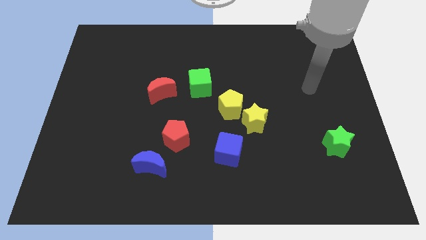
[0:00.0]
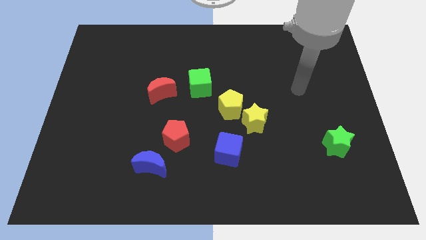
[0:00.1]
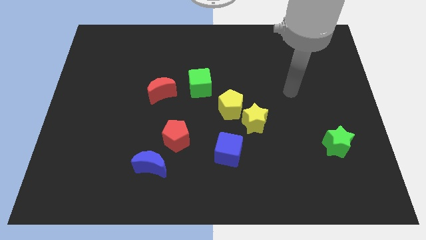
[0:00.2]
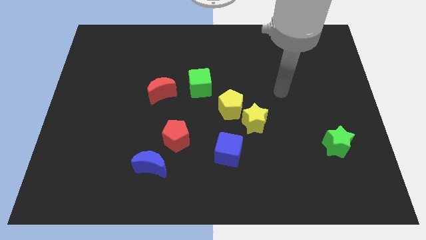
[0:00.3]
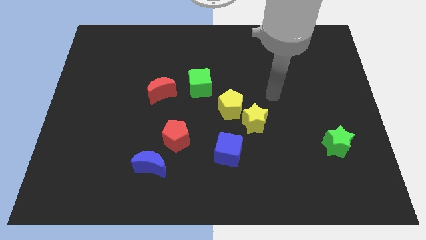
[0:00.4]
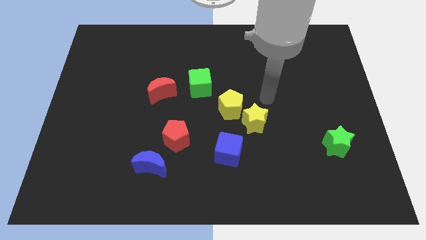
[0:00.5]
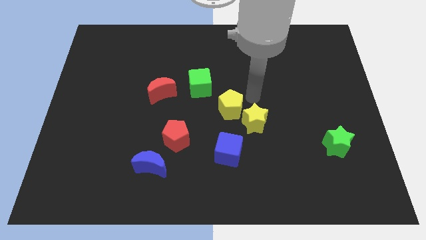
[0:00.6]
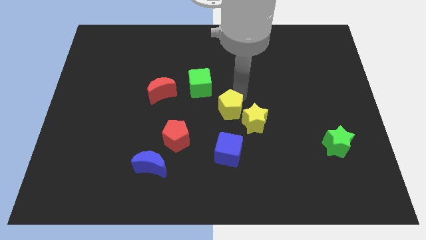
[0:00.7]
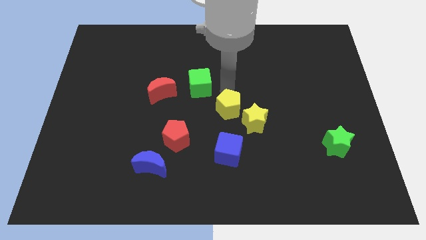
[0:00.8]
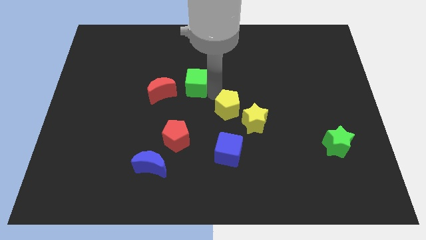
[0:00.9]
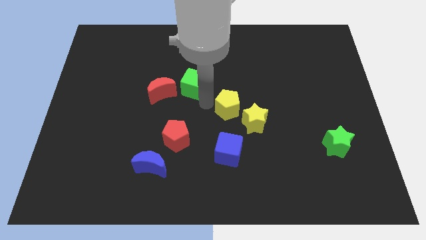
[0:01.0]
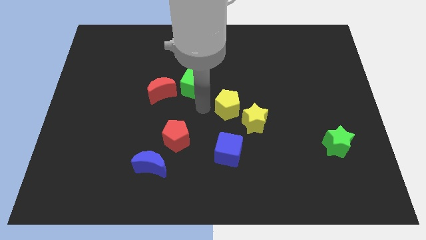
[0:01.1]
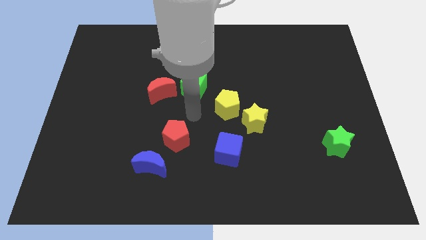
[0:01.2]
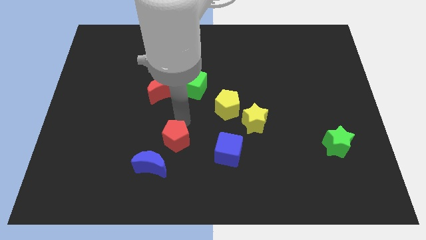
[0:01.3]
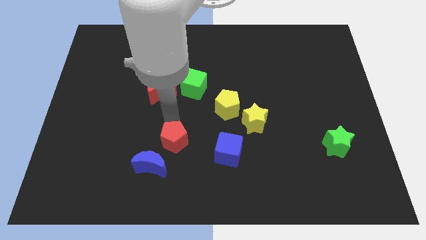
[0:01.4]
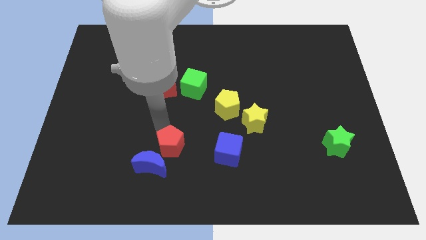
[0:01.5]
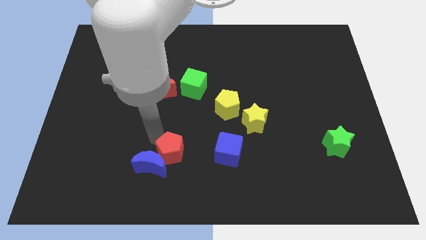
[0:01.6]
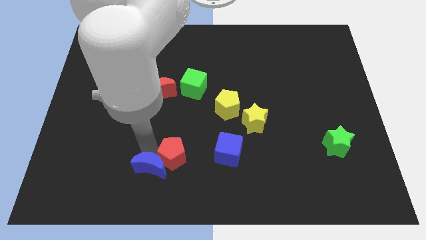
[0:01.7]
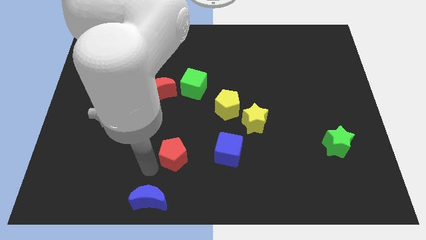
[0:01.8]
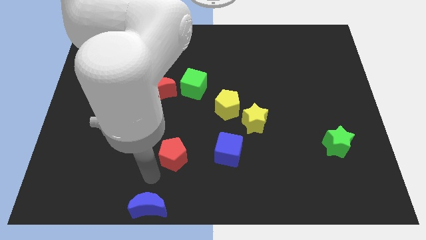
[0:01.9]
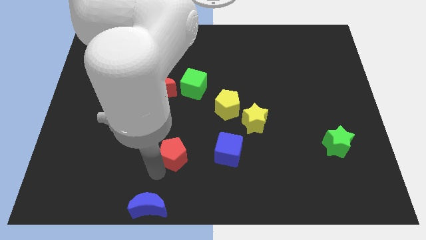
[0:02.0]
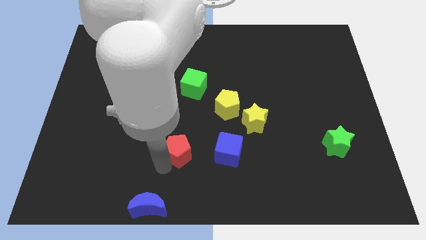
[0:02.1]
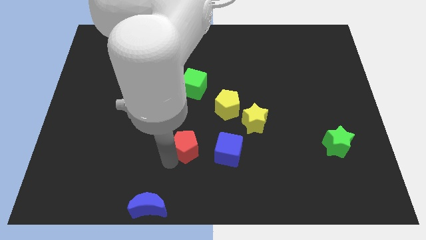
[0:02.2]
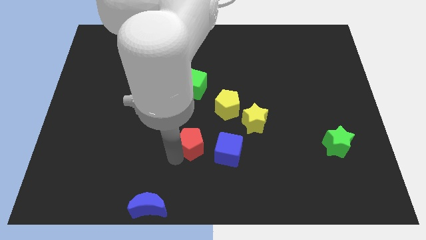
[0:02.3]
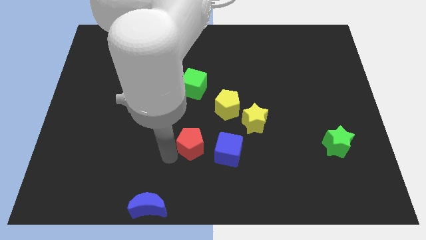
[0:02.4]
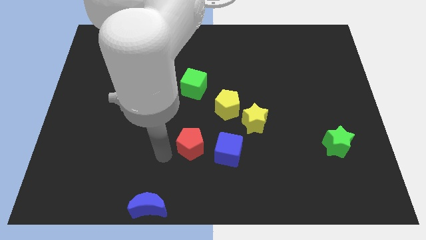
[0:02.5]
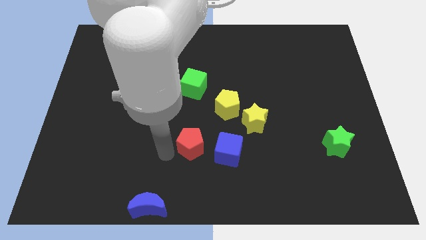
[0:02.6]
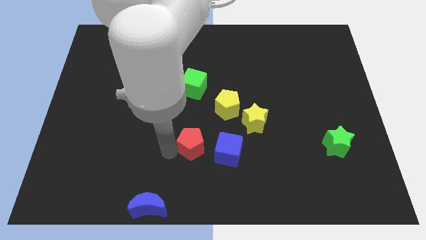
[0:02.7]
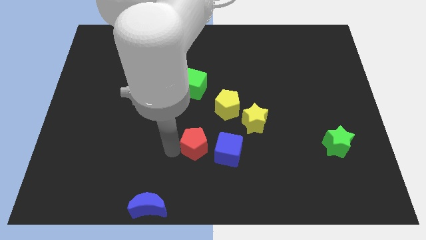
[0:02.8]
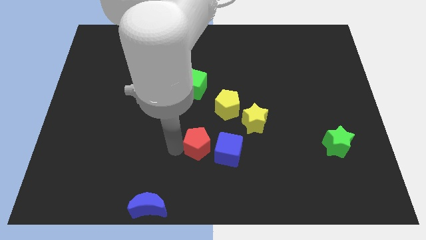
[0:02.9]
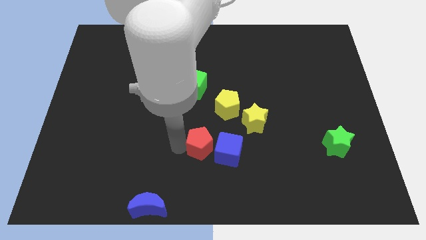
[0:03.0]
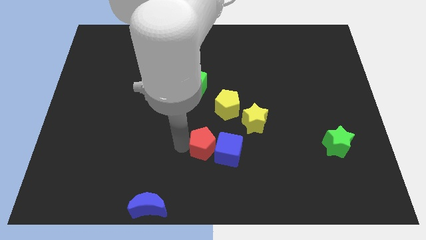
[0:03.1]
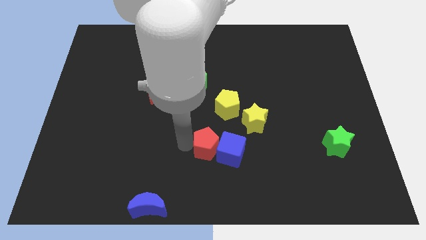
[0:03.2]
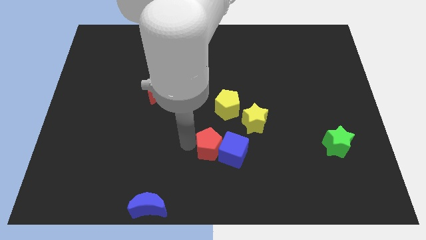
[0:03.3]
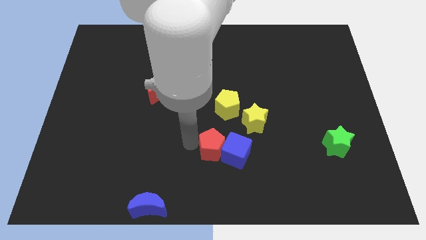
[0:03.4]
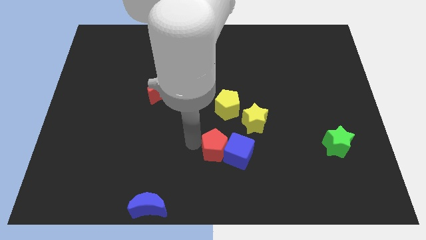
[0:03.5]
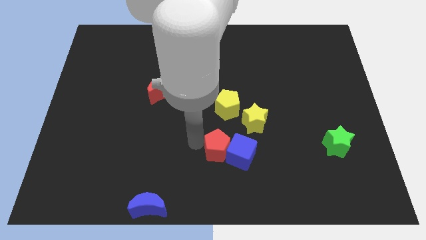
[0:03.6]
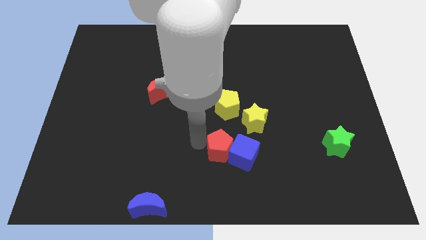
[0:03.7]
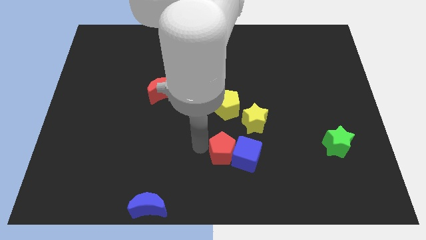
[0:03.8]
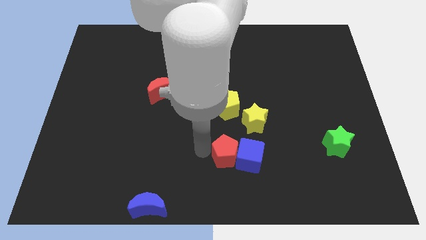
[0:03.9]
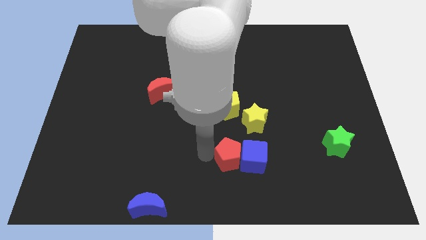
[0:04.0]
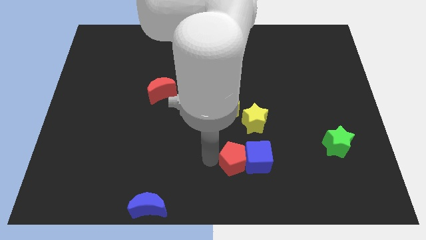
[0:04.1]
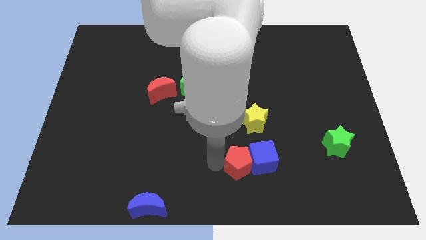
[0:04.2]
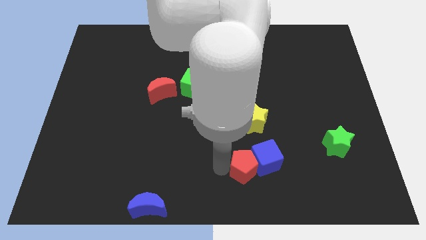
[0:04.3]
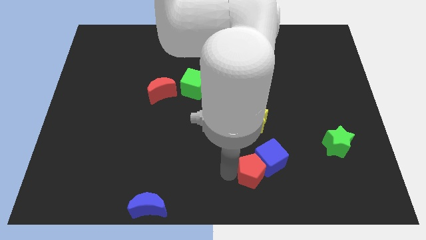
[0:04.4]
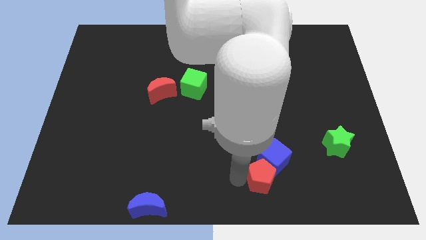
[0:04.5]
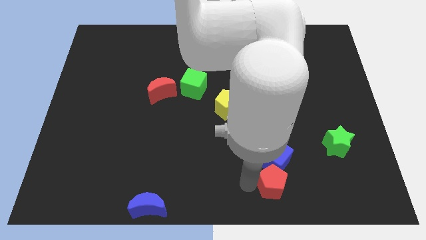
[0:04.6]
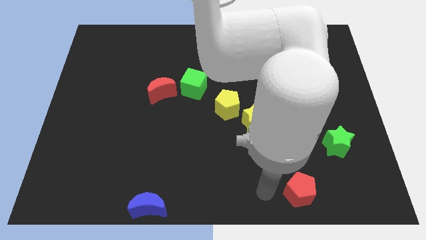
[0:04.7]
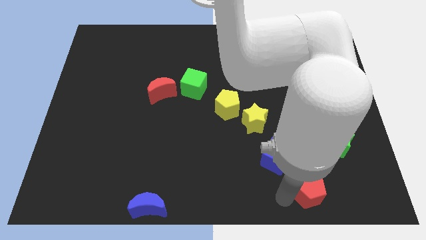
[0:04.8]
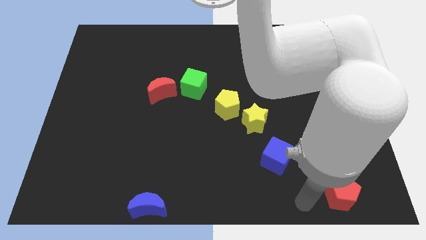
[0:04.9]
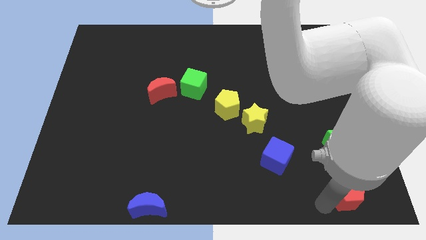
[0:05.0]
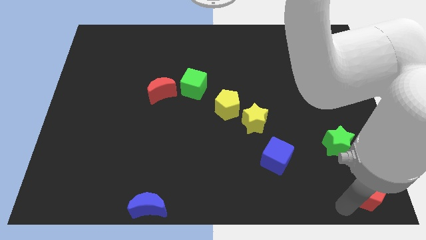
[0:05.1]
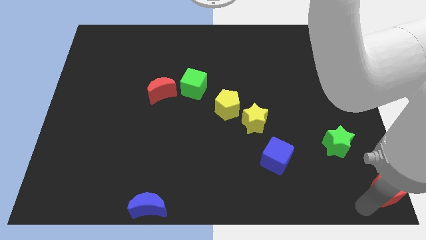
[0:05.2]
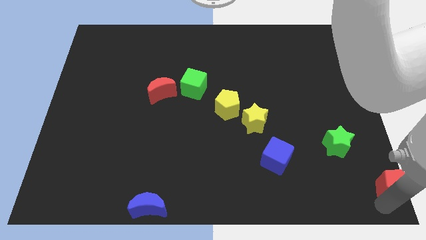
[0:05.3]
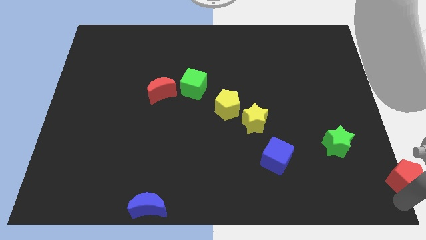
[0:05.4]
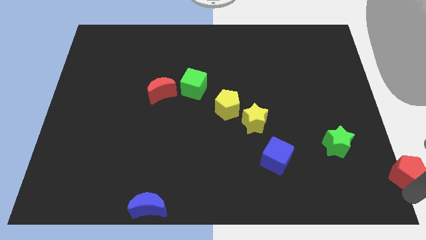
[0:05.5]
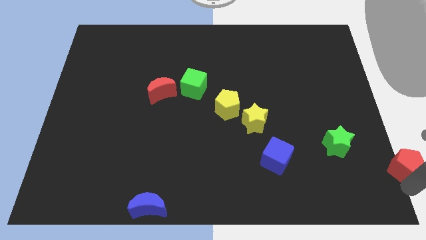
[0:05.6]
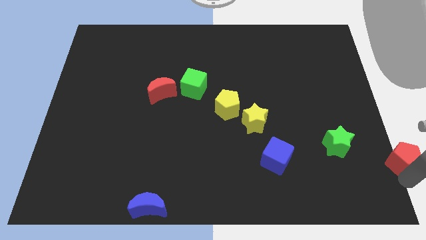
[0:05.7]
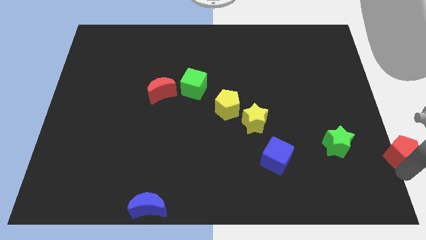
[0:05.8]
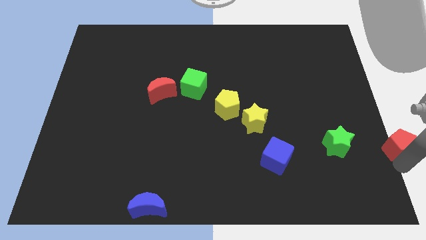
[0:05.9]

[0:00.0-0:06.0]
put the red pentagon to the right side of the board

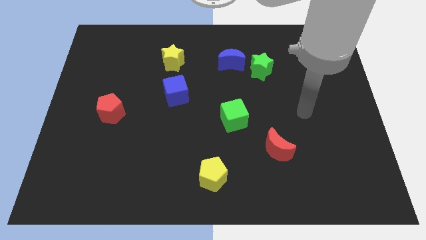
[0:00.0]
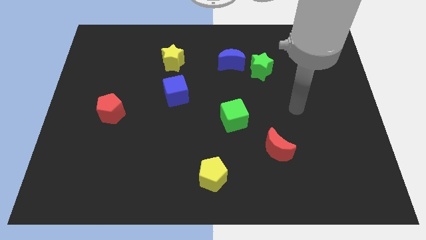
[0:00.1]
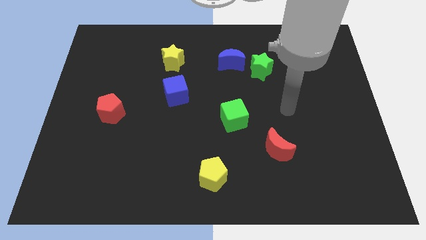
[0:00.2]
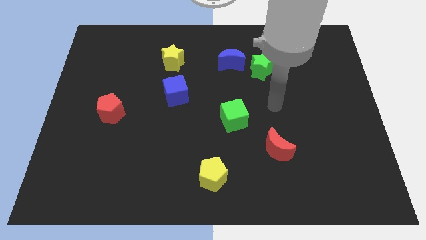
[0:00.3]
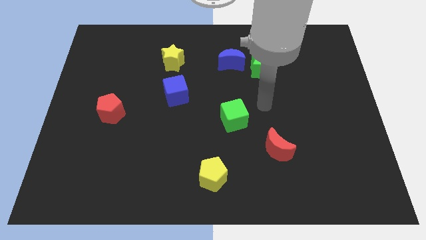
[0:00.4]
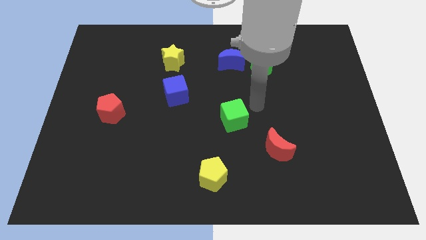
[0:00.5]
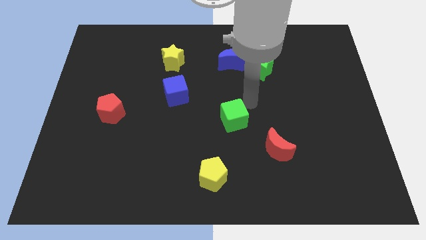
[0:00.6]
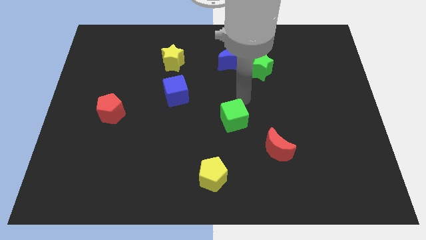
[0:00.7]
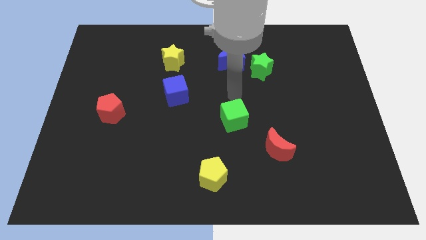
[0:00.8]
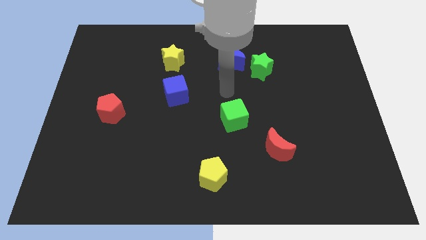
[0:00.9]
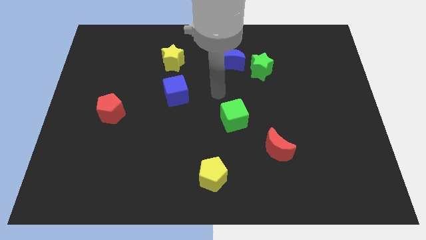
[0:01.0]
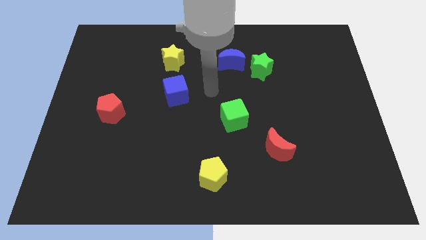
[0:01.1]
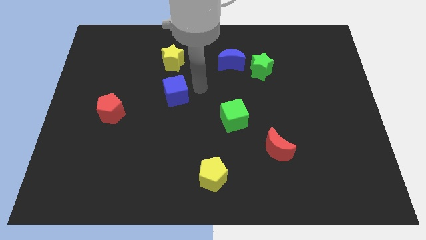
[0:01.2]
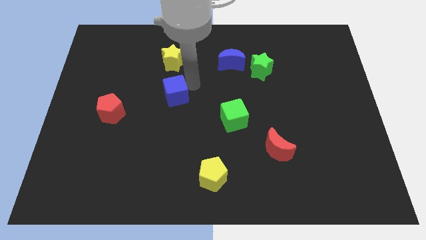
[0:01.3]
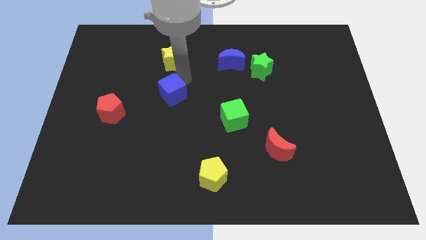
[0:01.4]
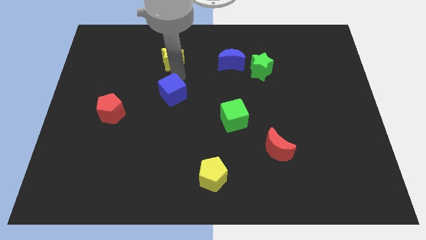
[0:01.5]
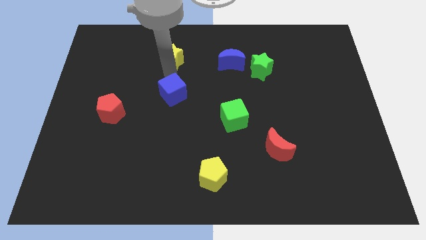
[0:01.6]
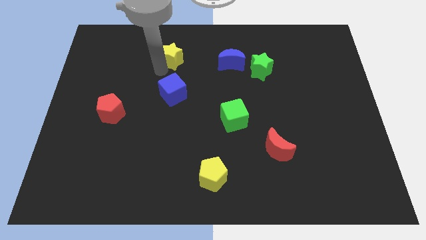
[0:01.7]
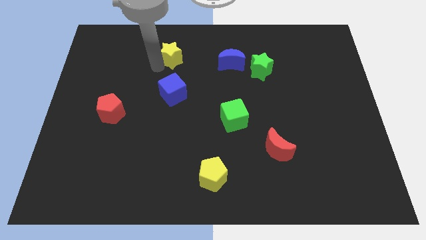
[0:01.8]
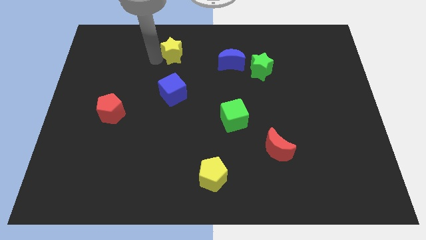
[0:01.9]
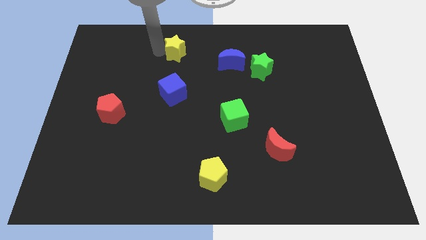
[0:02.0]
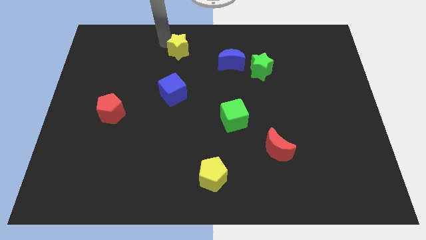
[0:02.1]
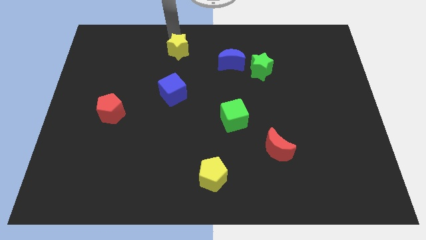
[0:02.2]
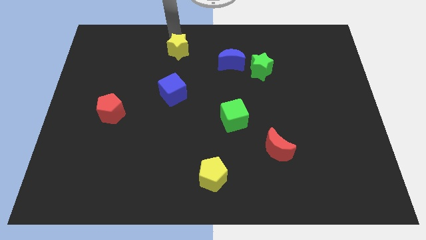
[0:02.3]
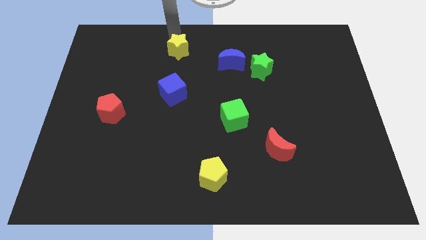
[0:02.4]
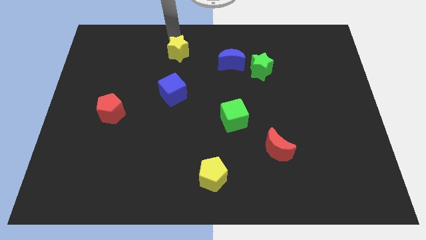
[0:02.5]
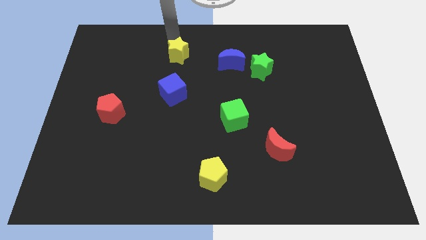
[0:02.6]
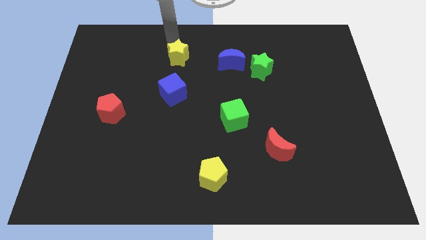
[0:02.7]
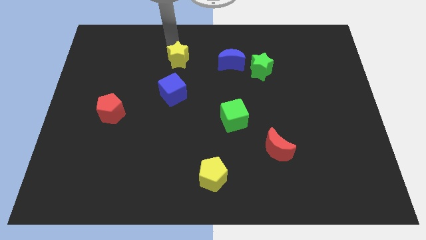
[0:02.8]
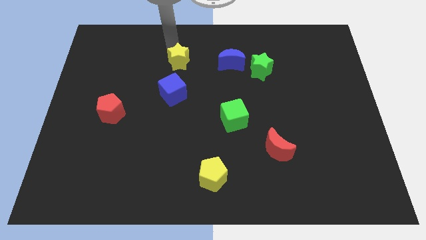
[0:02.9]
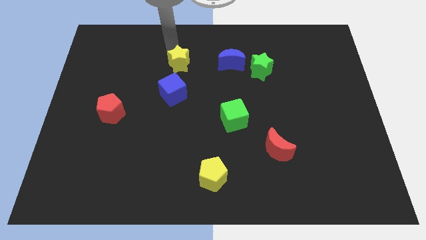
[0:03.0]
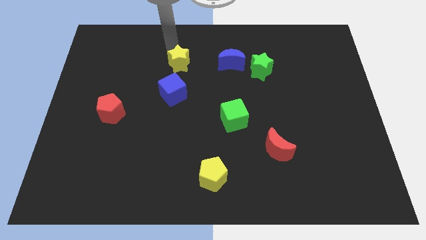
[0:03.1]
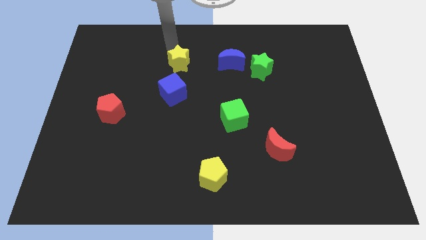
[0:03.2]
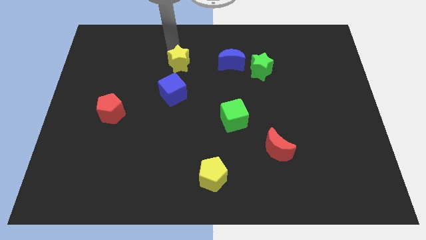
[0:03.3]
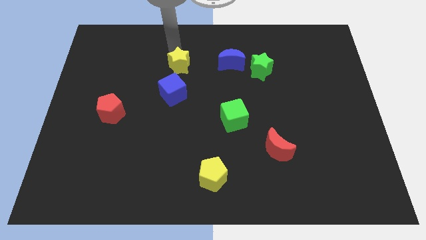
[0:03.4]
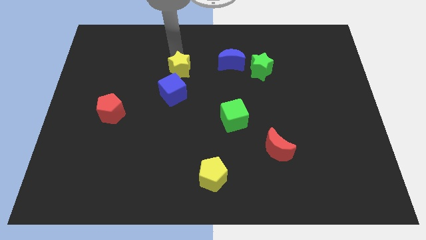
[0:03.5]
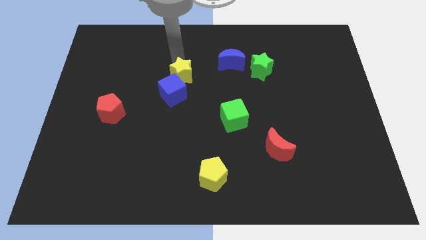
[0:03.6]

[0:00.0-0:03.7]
move the yellow star to the center
